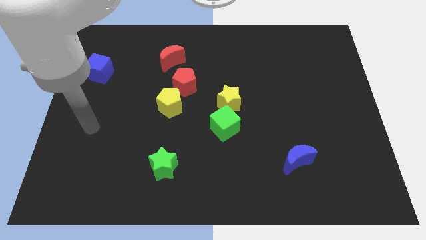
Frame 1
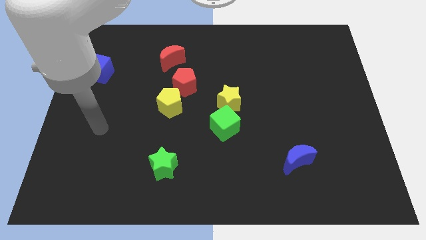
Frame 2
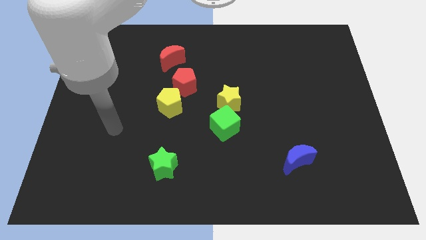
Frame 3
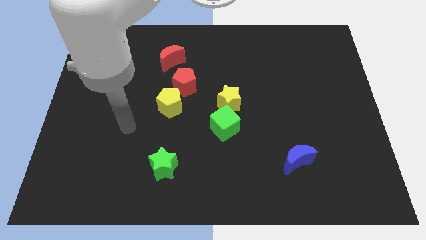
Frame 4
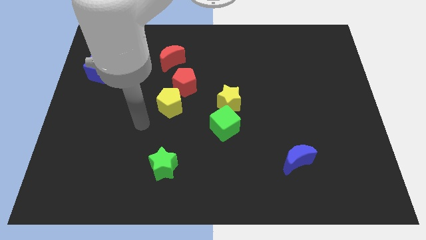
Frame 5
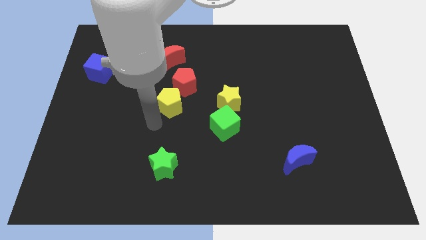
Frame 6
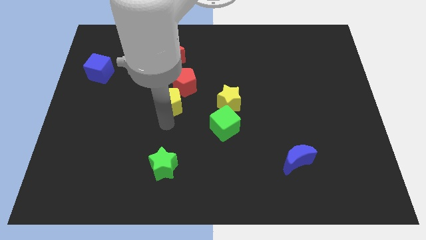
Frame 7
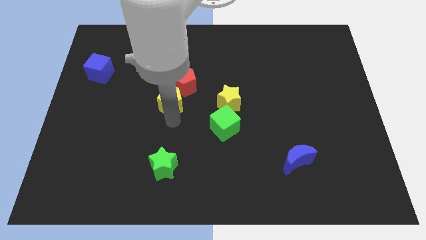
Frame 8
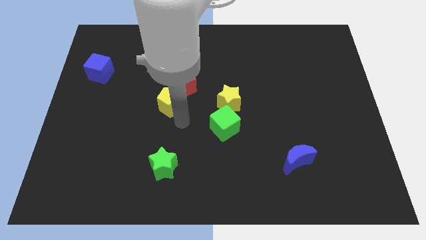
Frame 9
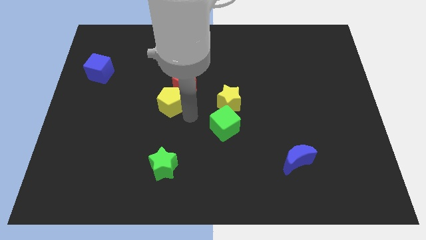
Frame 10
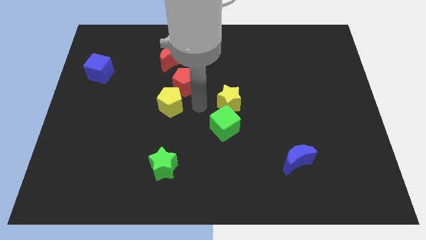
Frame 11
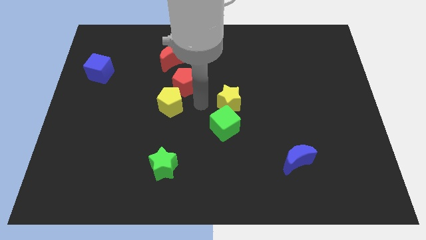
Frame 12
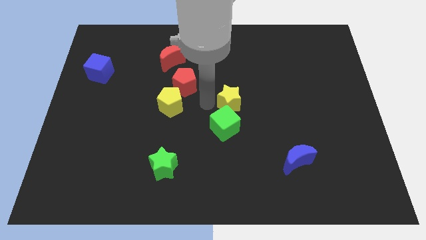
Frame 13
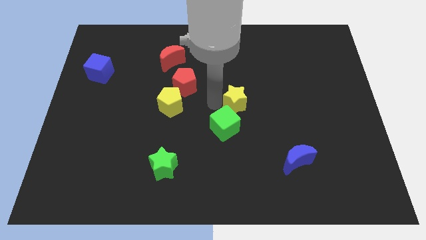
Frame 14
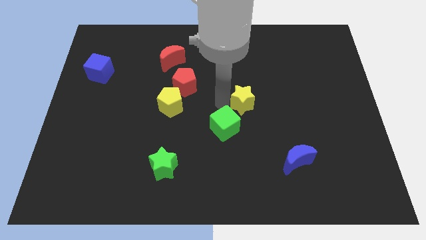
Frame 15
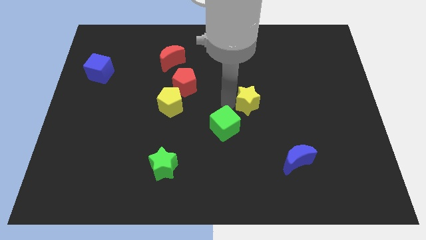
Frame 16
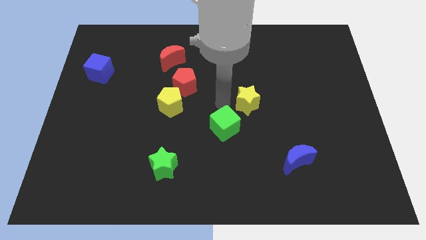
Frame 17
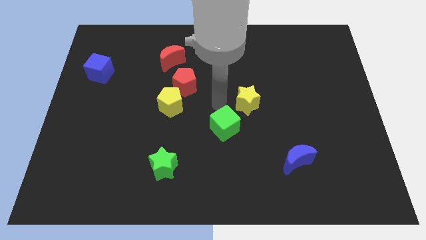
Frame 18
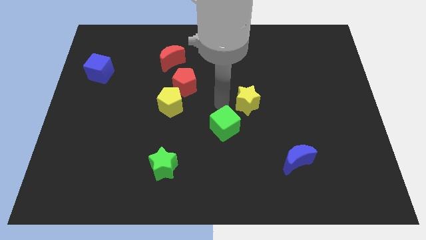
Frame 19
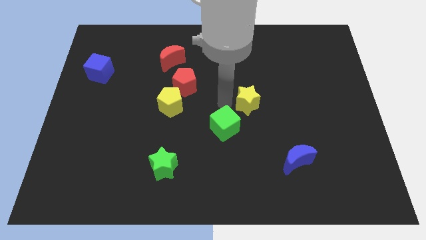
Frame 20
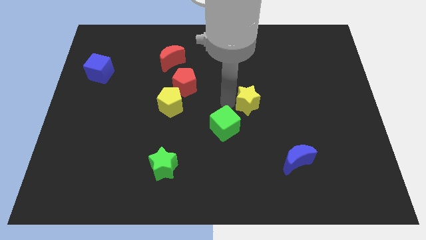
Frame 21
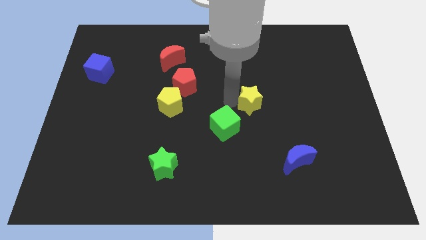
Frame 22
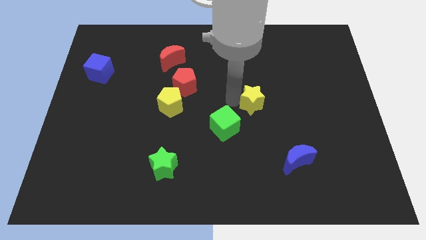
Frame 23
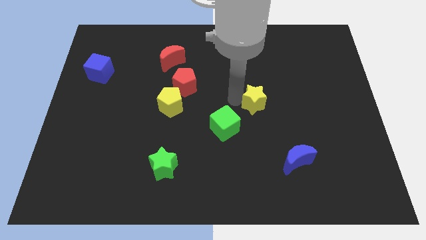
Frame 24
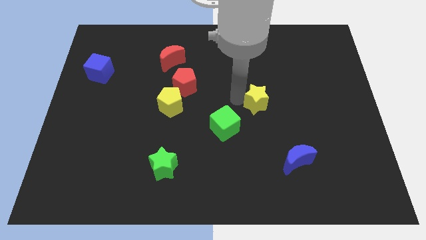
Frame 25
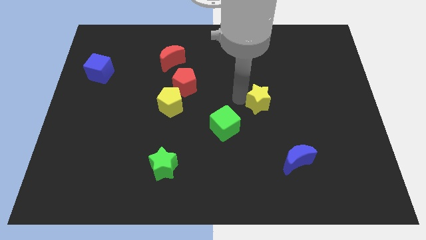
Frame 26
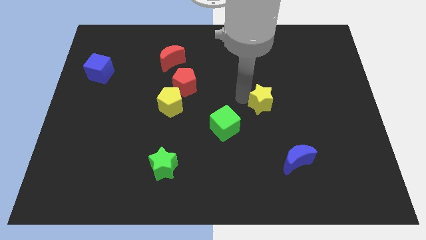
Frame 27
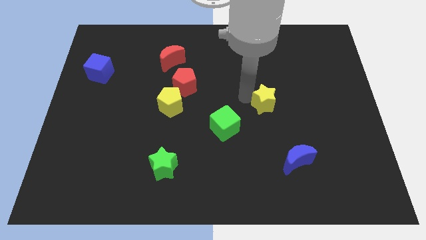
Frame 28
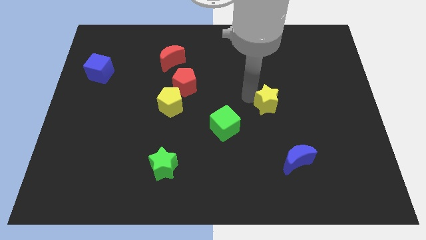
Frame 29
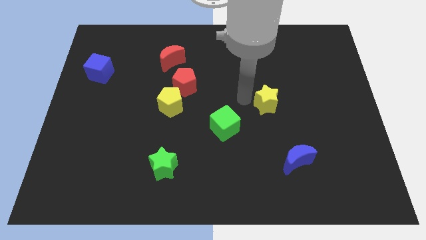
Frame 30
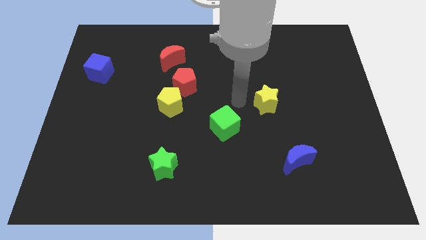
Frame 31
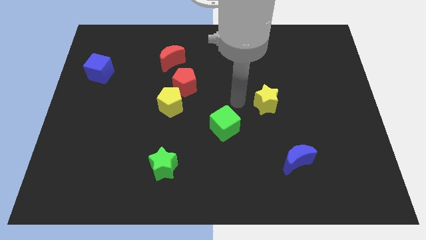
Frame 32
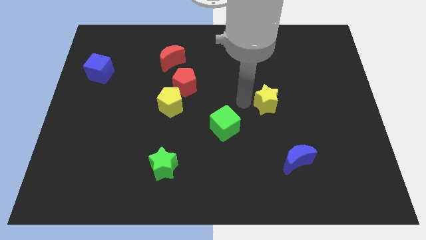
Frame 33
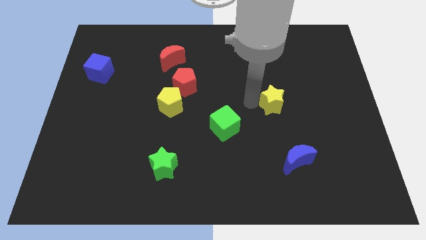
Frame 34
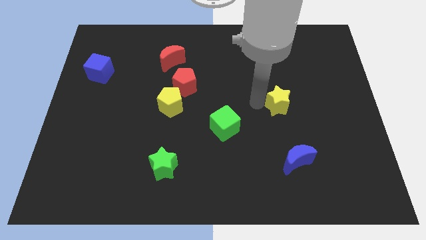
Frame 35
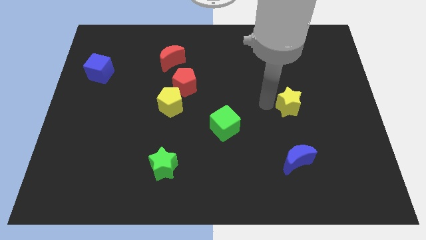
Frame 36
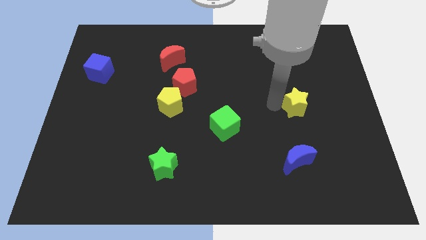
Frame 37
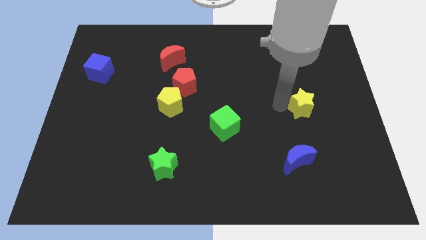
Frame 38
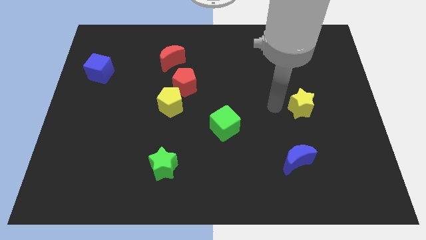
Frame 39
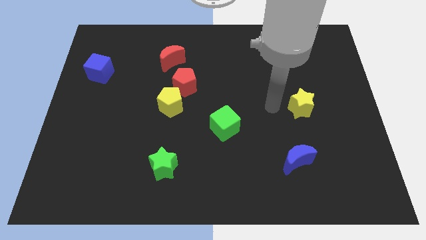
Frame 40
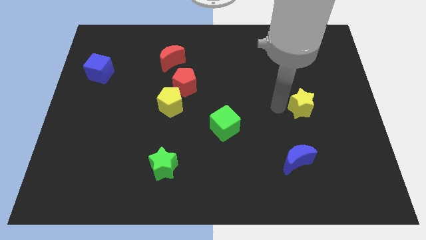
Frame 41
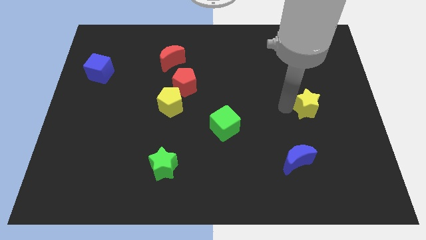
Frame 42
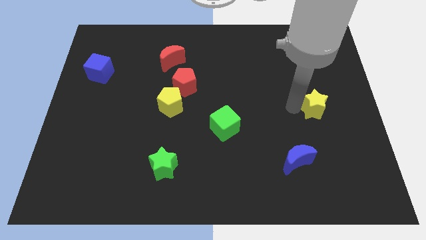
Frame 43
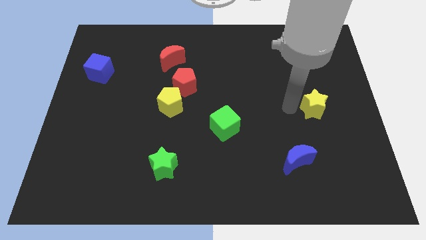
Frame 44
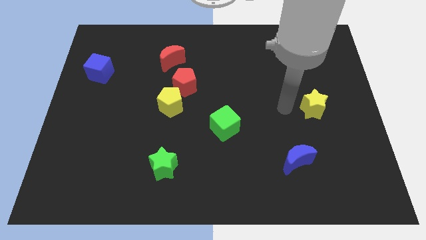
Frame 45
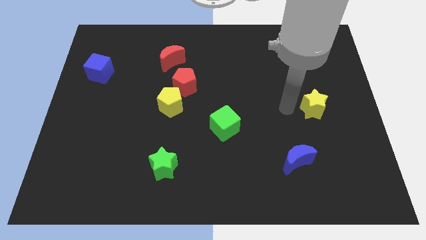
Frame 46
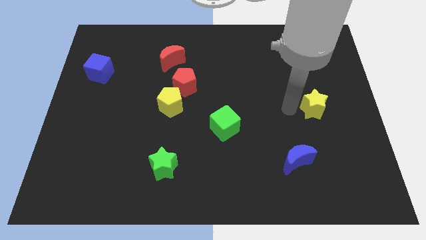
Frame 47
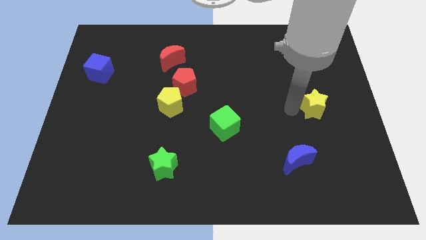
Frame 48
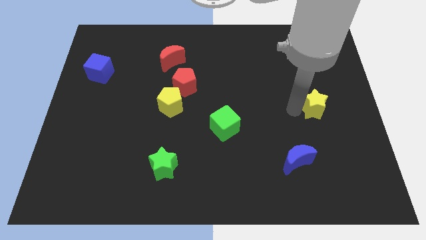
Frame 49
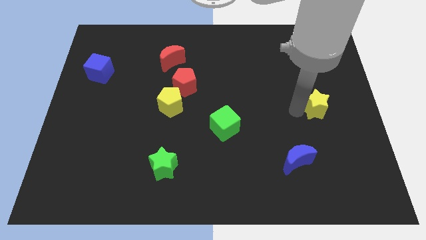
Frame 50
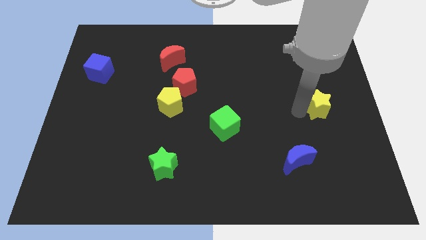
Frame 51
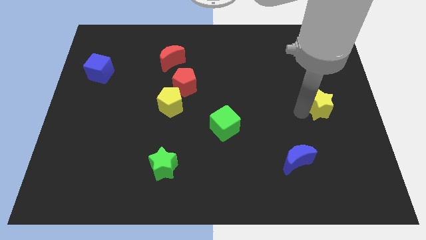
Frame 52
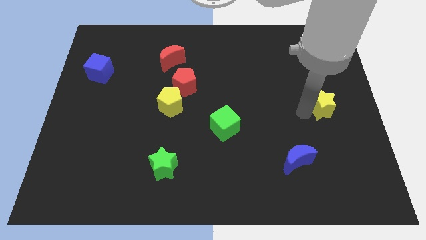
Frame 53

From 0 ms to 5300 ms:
slide the yellow star to the right side

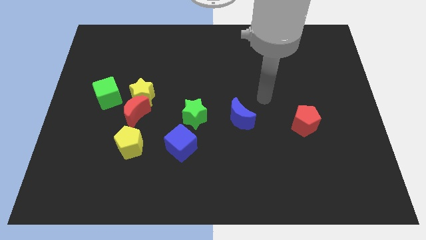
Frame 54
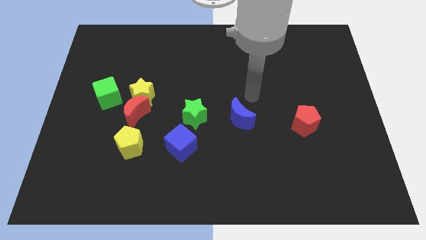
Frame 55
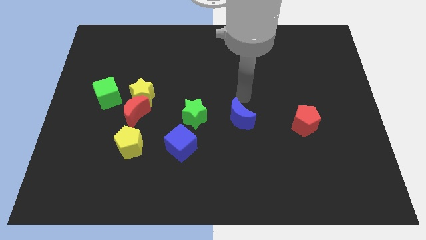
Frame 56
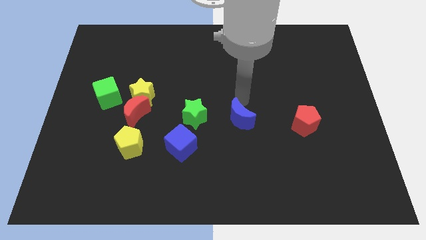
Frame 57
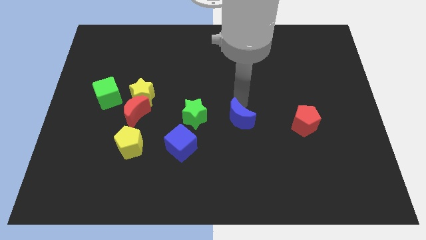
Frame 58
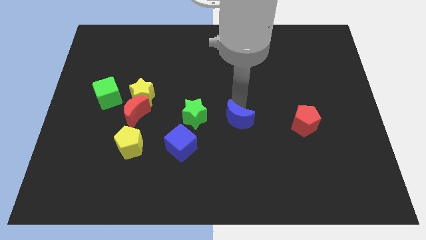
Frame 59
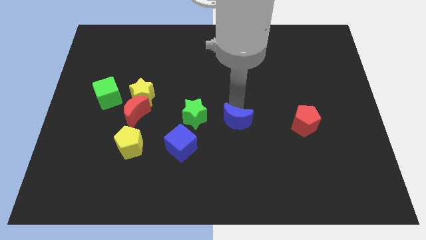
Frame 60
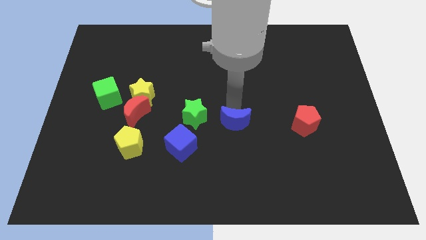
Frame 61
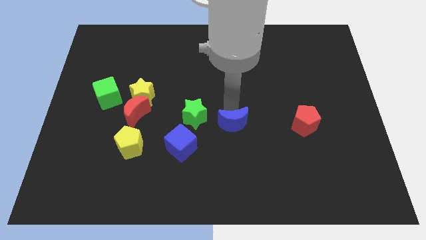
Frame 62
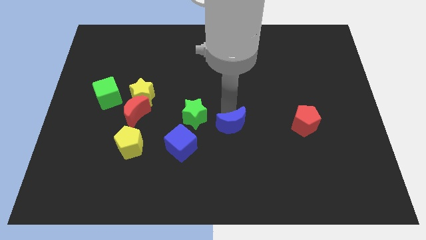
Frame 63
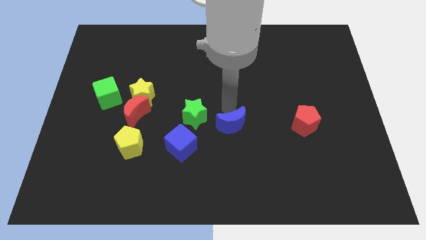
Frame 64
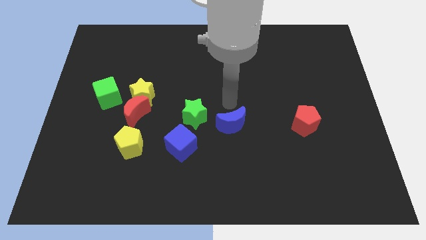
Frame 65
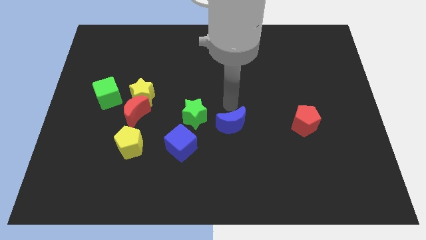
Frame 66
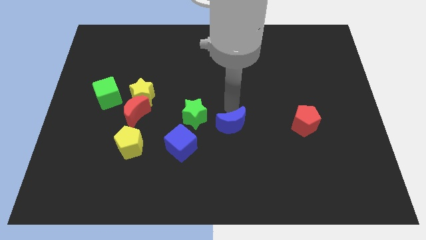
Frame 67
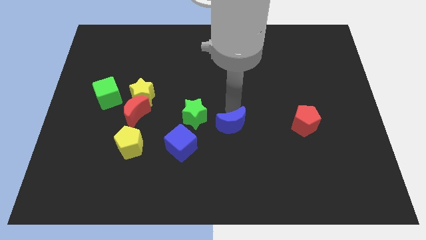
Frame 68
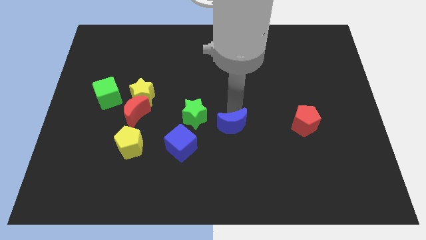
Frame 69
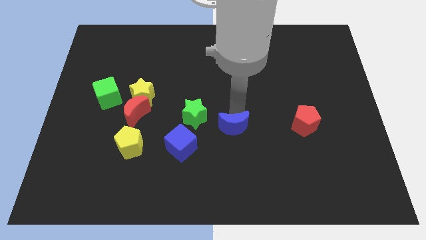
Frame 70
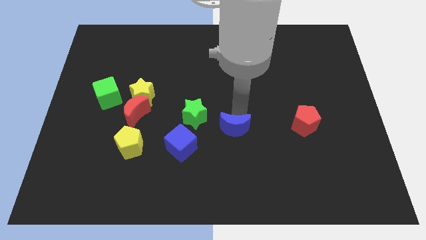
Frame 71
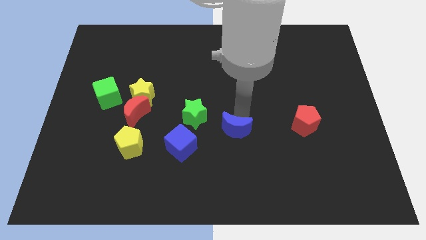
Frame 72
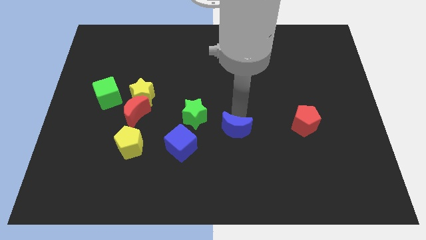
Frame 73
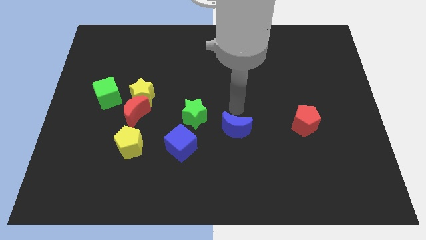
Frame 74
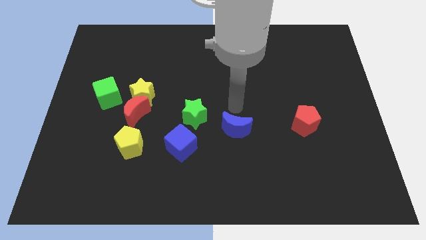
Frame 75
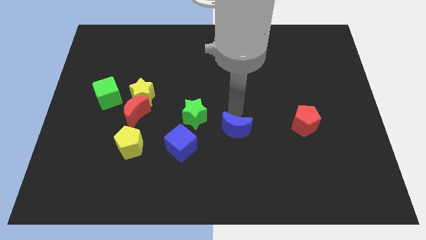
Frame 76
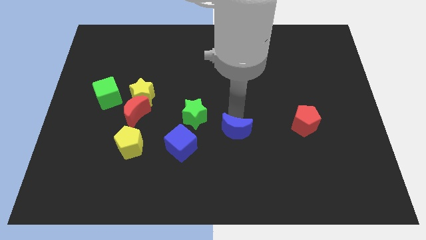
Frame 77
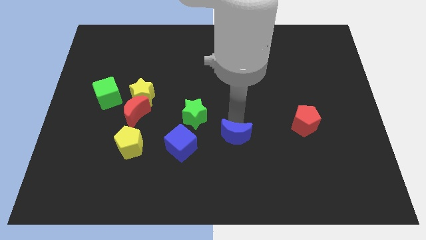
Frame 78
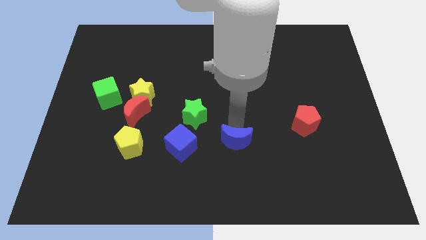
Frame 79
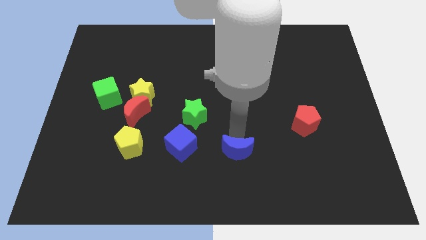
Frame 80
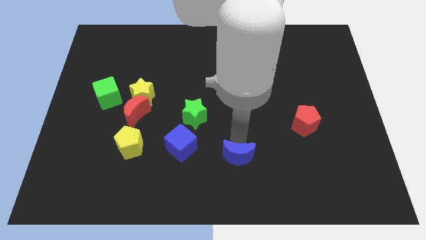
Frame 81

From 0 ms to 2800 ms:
move the blue moon to the bottom
